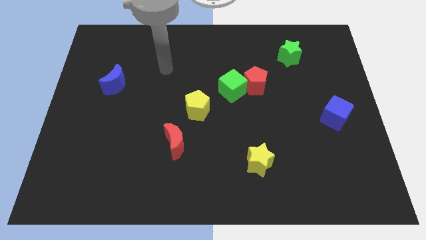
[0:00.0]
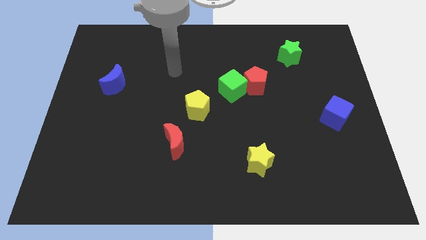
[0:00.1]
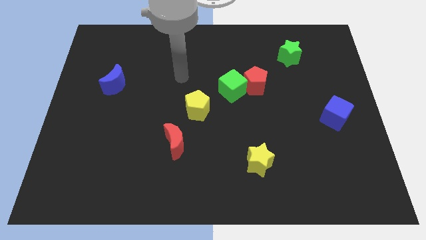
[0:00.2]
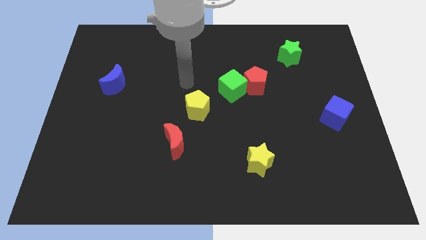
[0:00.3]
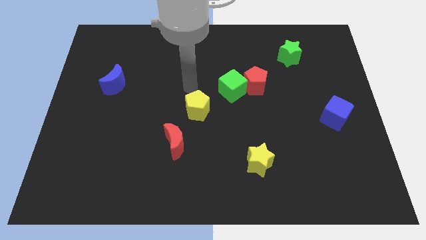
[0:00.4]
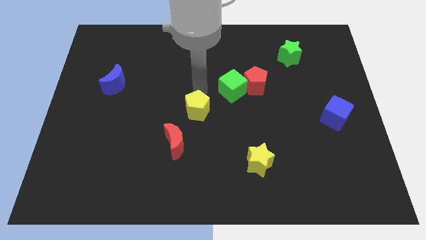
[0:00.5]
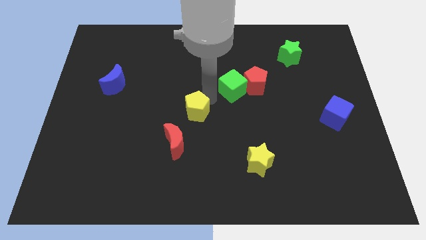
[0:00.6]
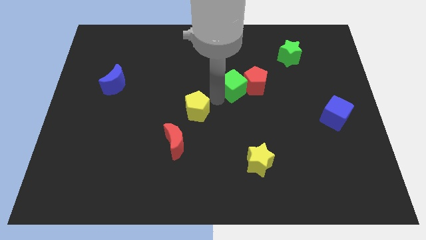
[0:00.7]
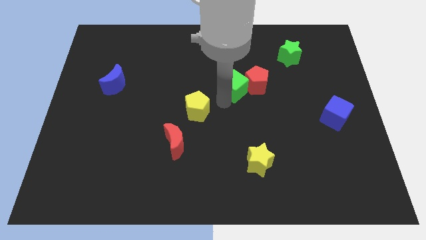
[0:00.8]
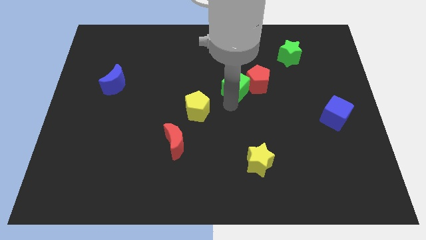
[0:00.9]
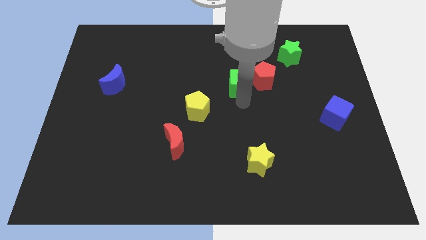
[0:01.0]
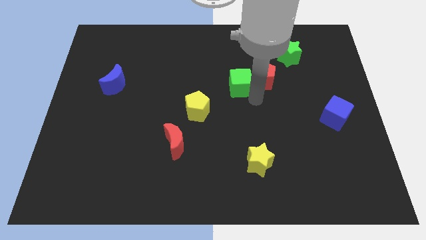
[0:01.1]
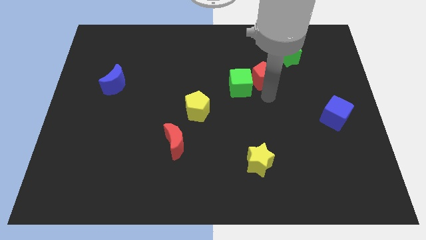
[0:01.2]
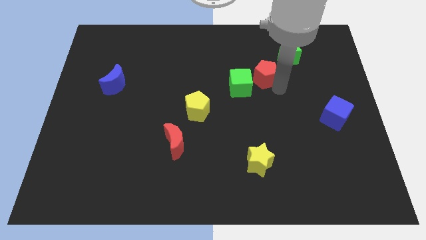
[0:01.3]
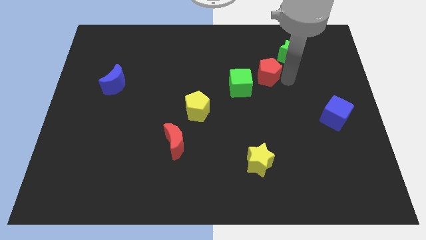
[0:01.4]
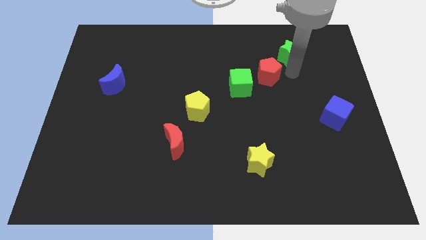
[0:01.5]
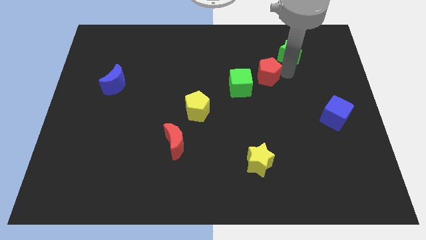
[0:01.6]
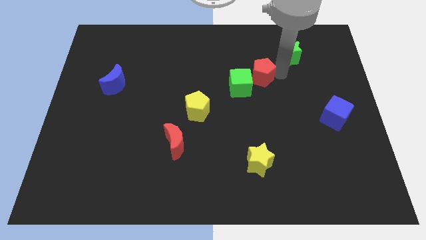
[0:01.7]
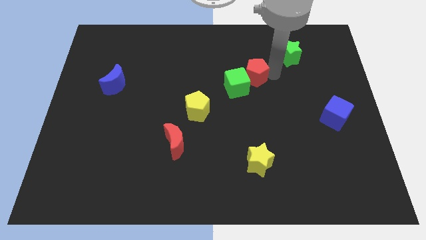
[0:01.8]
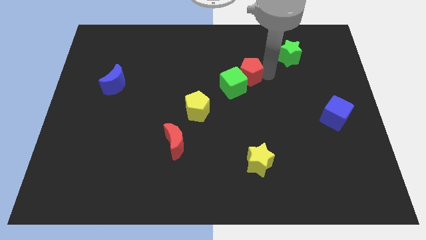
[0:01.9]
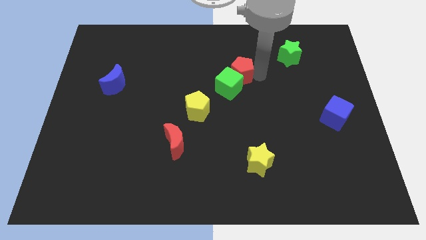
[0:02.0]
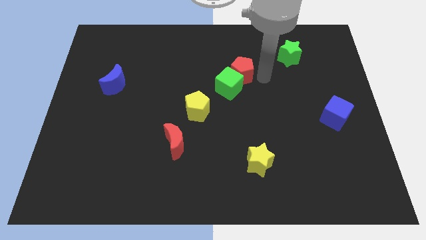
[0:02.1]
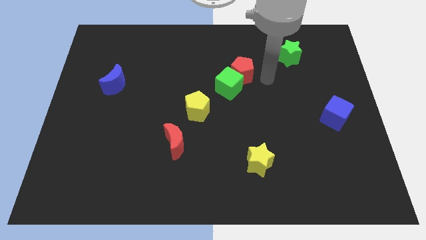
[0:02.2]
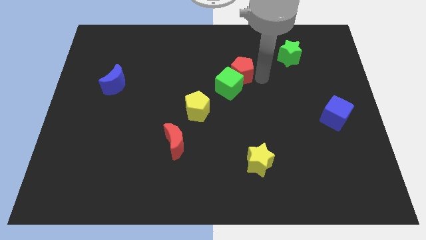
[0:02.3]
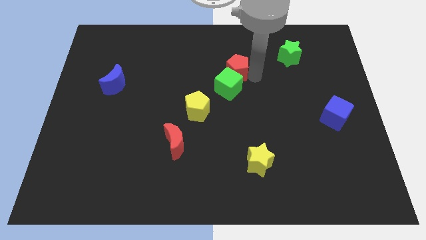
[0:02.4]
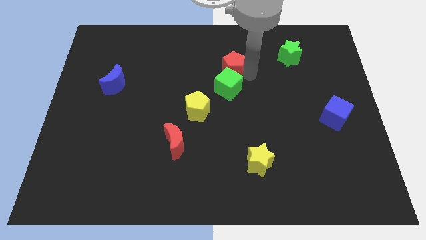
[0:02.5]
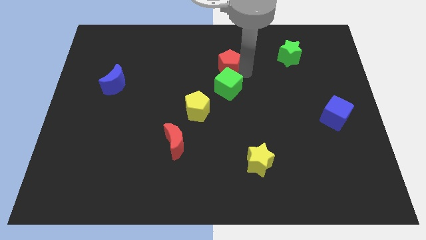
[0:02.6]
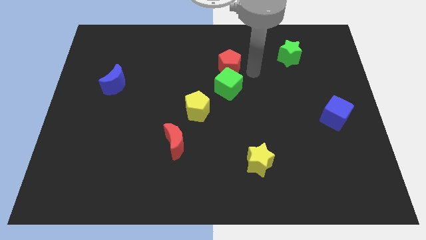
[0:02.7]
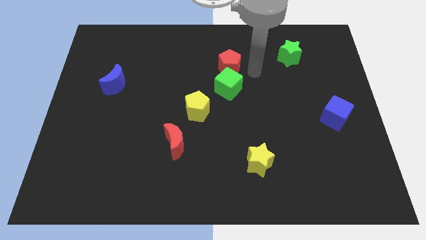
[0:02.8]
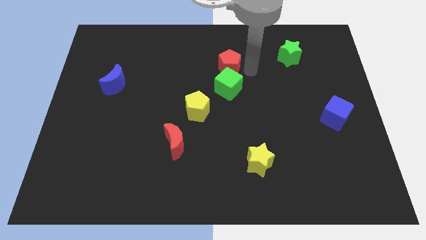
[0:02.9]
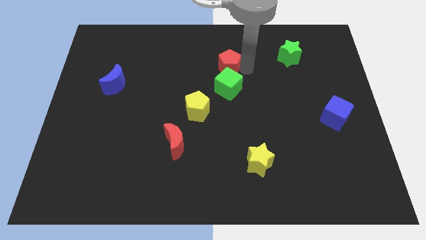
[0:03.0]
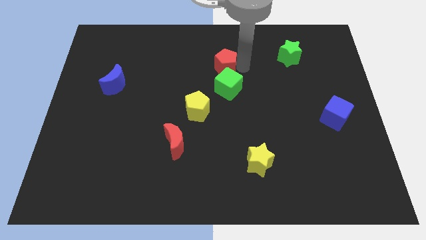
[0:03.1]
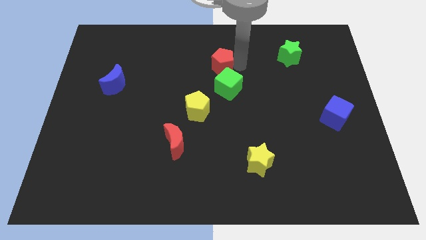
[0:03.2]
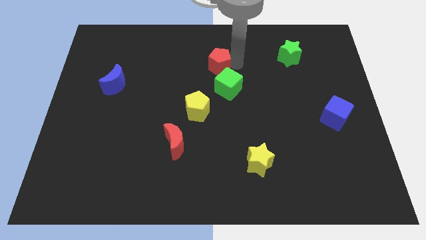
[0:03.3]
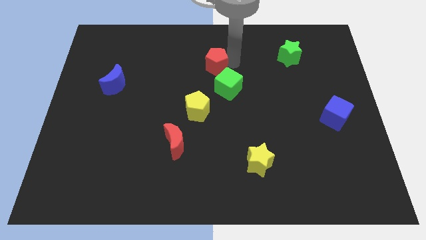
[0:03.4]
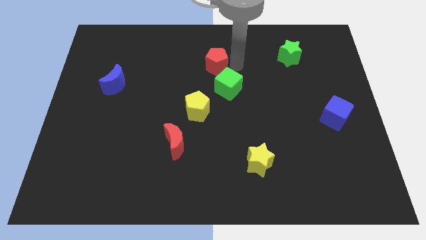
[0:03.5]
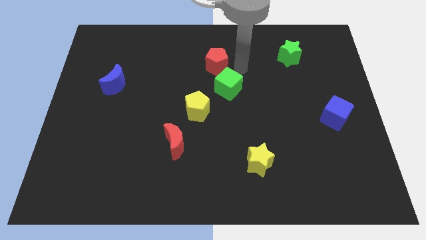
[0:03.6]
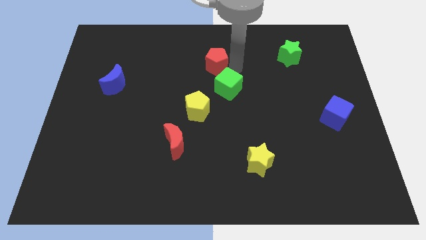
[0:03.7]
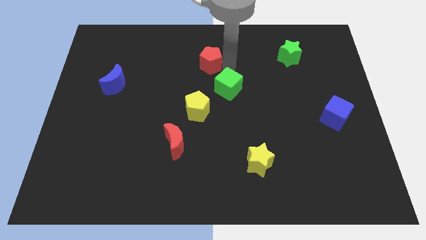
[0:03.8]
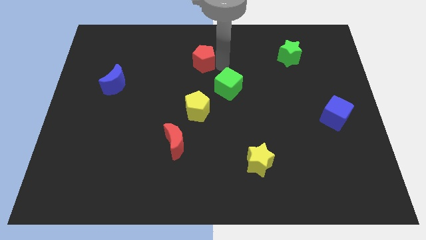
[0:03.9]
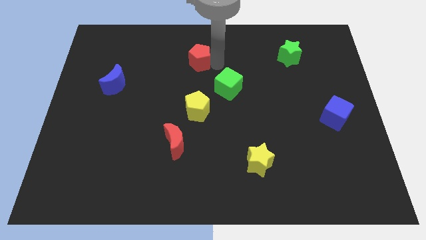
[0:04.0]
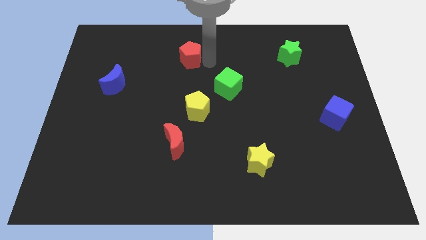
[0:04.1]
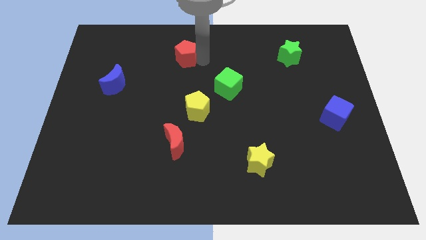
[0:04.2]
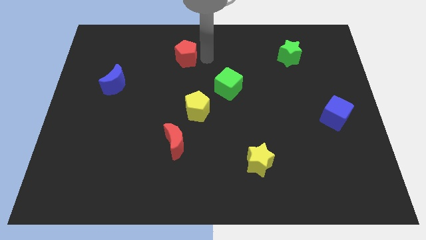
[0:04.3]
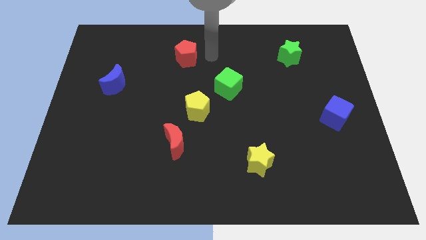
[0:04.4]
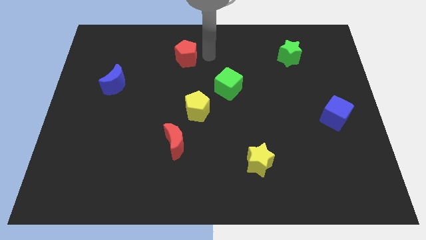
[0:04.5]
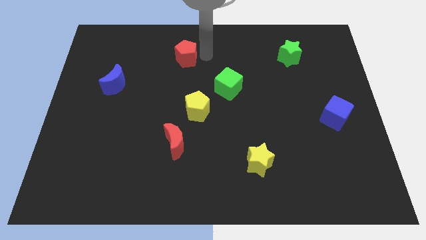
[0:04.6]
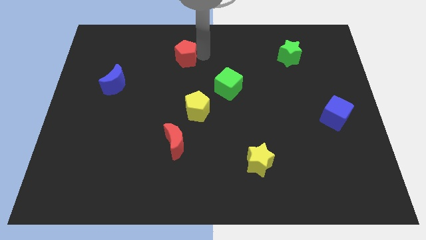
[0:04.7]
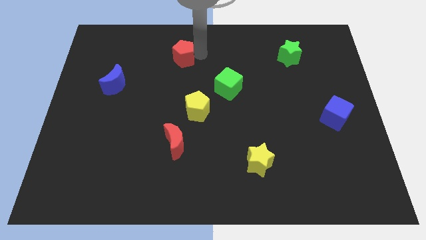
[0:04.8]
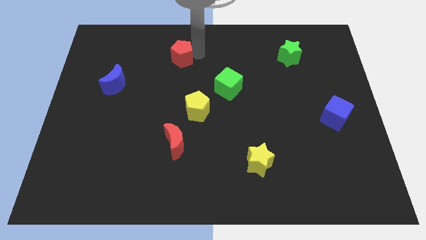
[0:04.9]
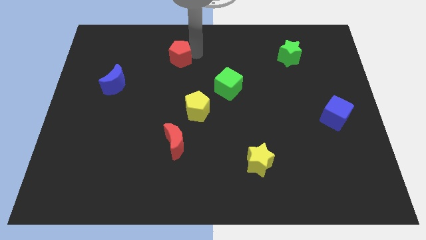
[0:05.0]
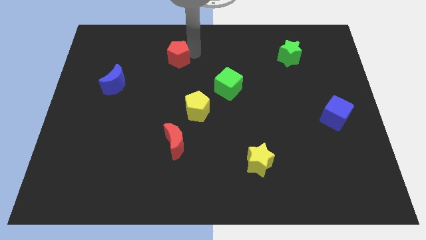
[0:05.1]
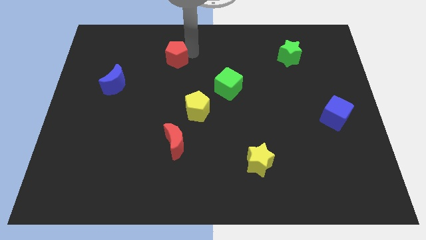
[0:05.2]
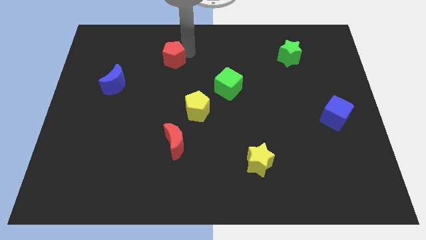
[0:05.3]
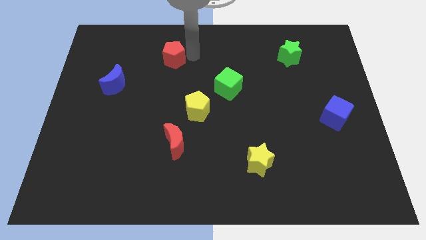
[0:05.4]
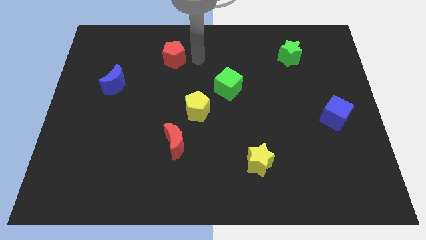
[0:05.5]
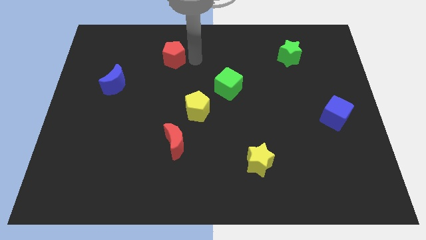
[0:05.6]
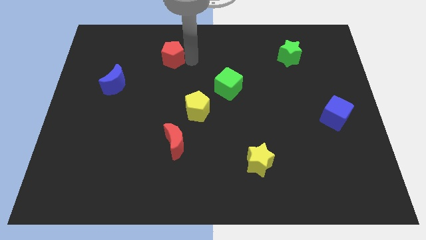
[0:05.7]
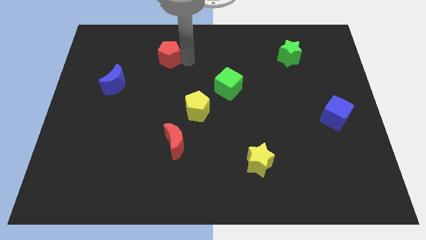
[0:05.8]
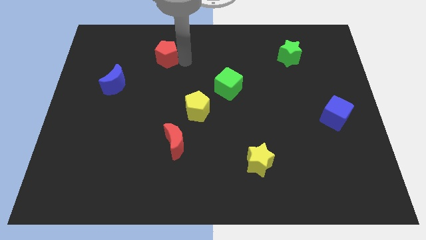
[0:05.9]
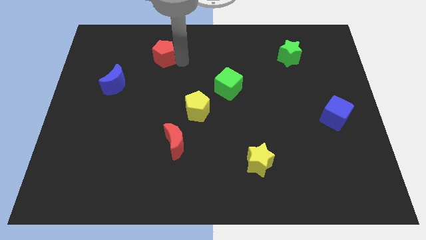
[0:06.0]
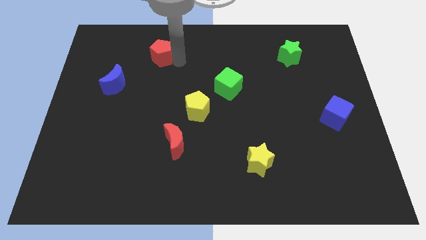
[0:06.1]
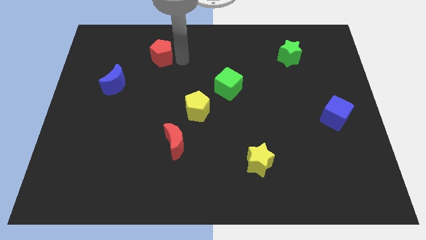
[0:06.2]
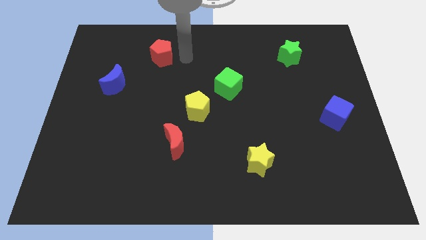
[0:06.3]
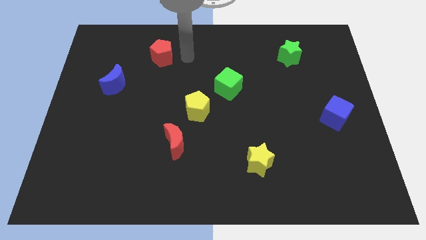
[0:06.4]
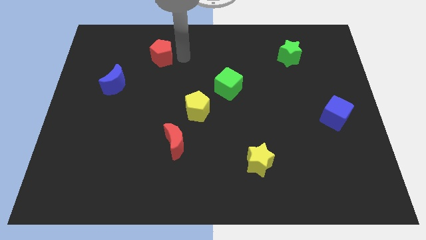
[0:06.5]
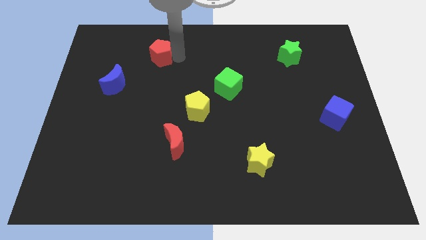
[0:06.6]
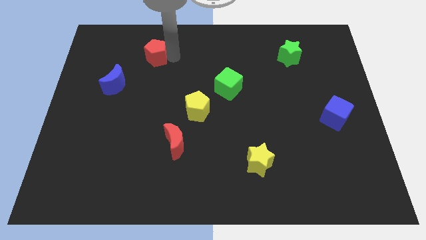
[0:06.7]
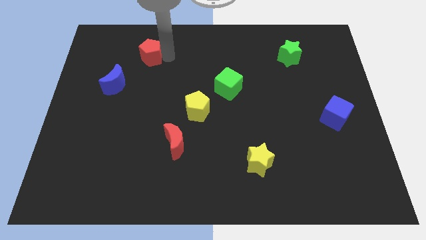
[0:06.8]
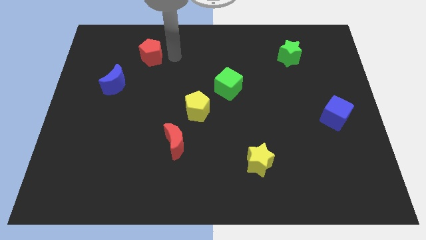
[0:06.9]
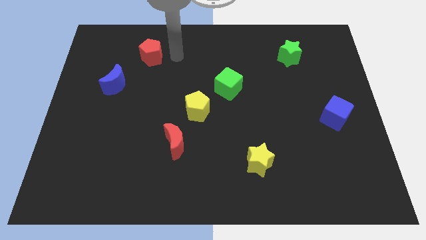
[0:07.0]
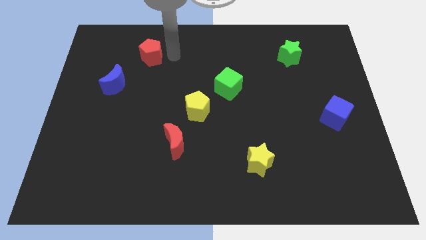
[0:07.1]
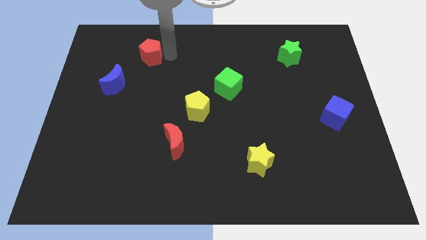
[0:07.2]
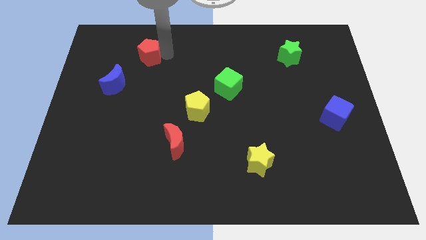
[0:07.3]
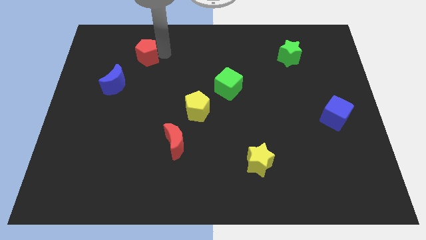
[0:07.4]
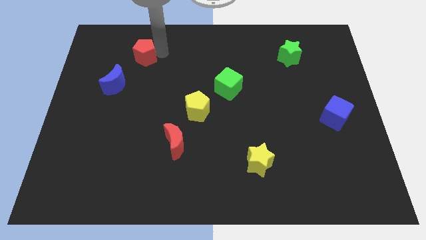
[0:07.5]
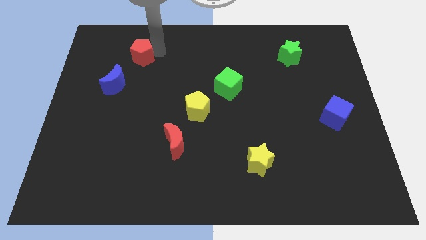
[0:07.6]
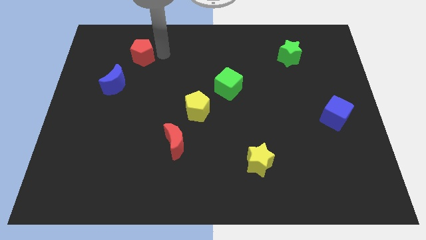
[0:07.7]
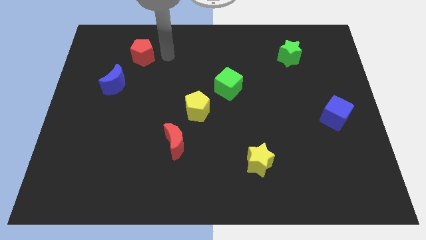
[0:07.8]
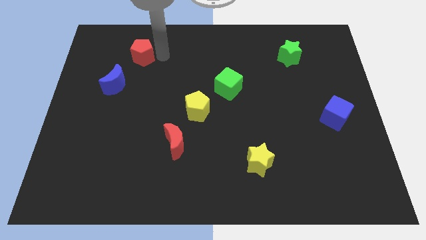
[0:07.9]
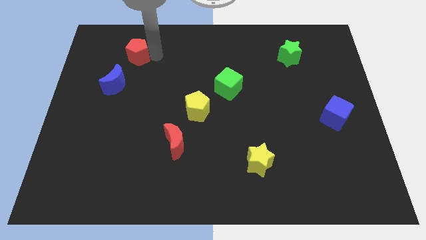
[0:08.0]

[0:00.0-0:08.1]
slide the red pentagon to the top side of the blue moon
